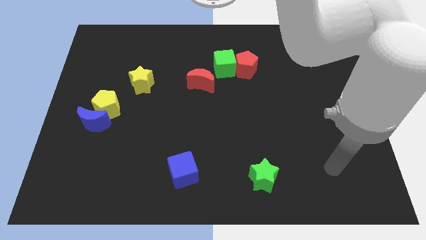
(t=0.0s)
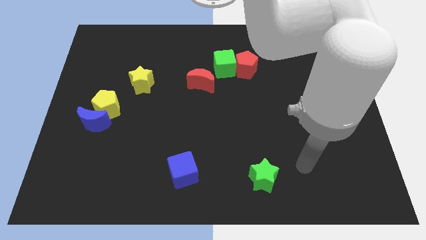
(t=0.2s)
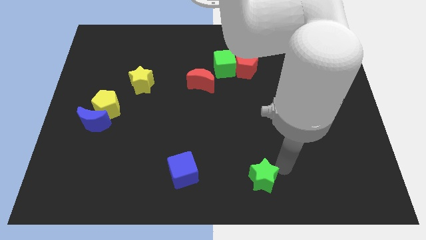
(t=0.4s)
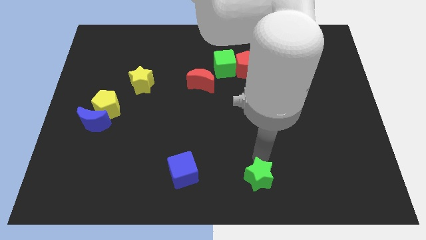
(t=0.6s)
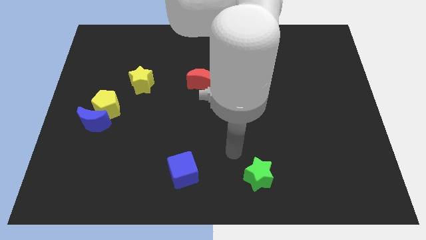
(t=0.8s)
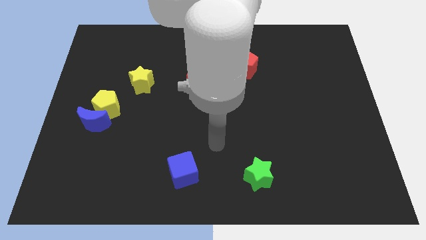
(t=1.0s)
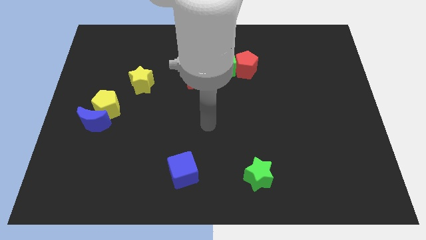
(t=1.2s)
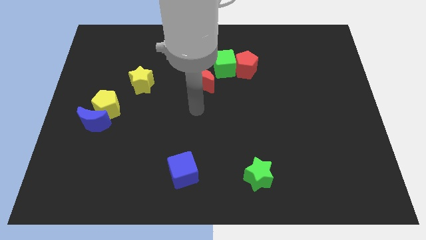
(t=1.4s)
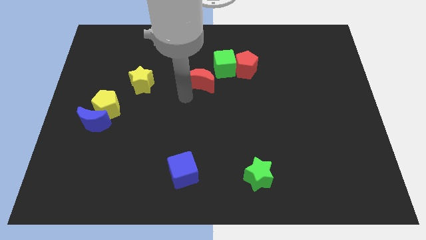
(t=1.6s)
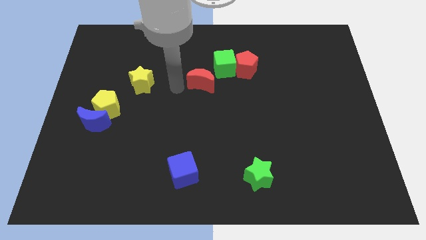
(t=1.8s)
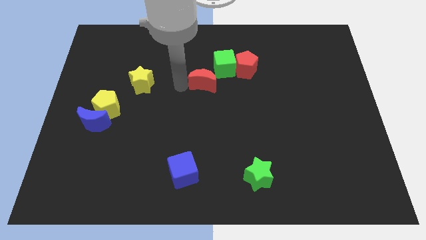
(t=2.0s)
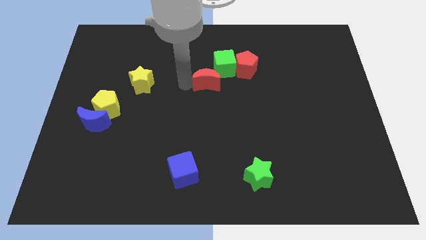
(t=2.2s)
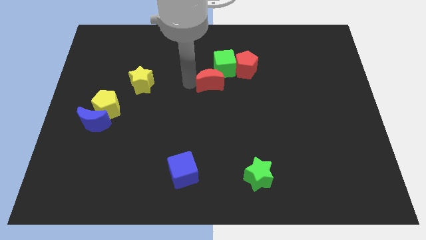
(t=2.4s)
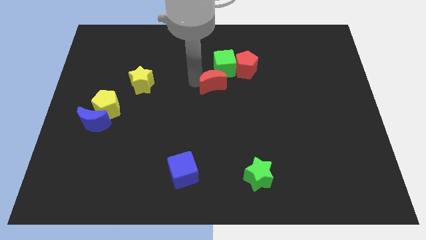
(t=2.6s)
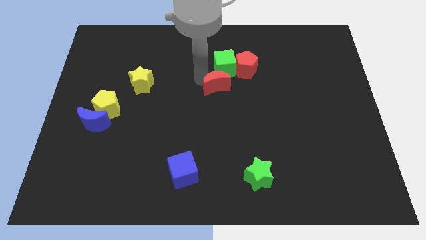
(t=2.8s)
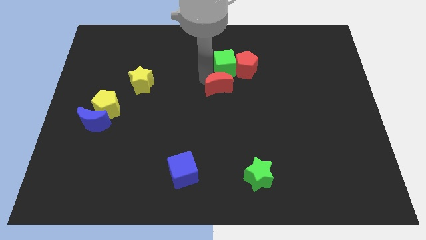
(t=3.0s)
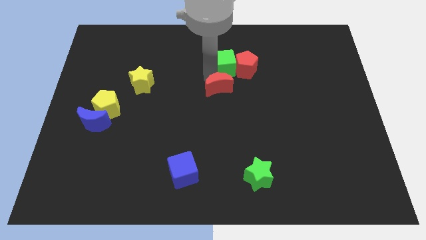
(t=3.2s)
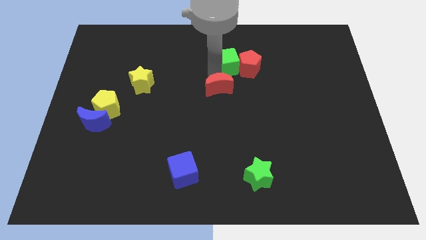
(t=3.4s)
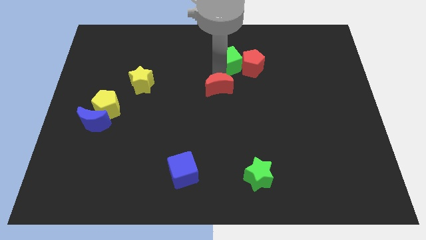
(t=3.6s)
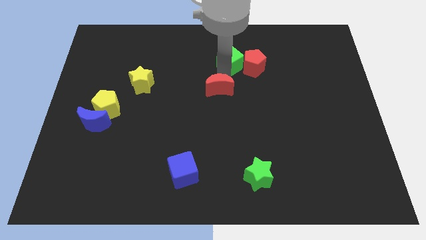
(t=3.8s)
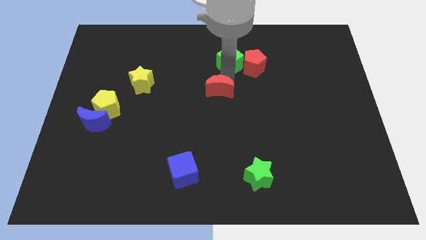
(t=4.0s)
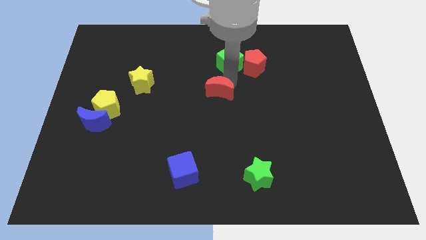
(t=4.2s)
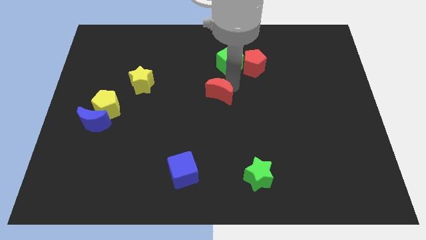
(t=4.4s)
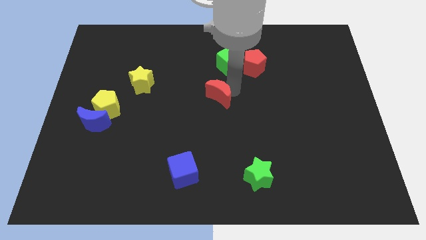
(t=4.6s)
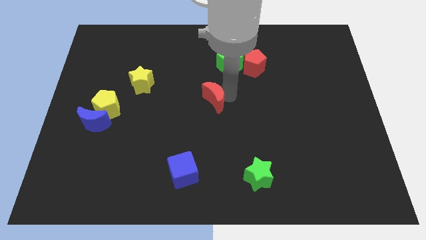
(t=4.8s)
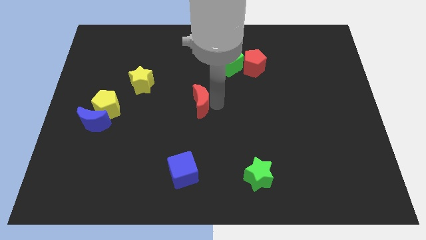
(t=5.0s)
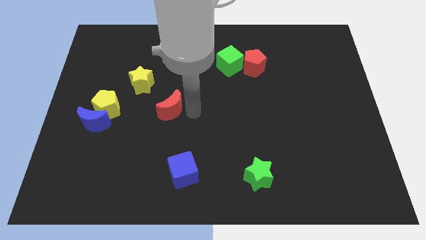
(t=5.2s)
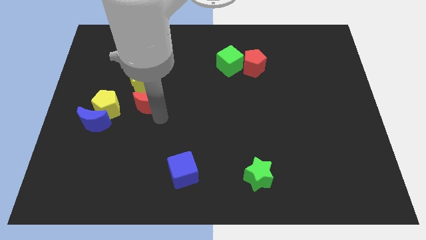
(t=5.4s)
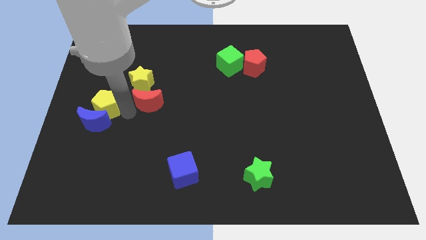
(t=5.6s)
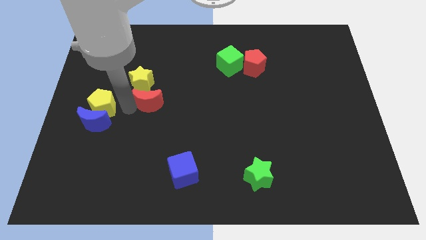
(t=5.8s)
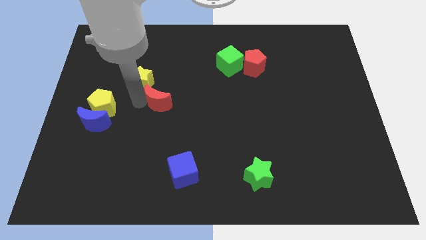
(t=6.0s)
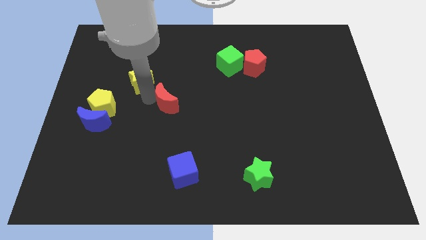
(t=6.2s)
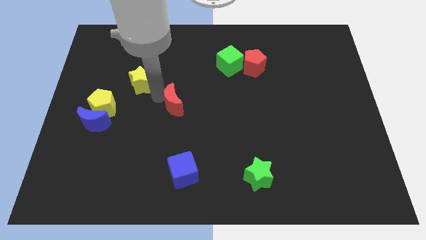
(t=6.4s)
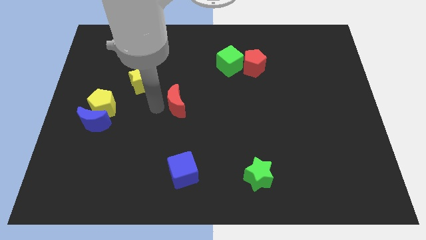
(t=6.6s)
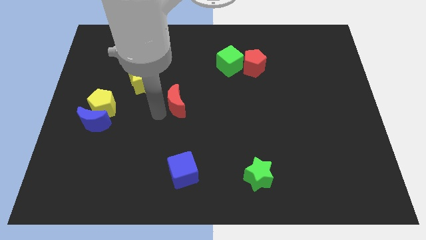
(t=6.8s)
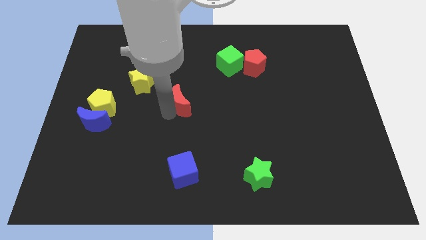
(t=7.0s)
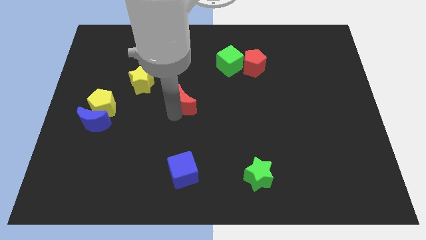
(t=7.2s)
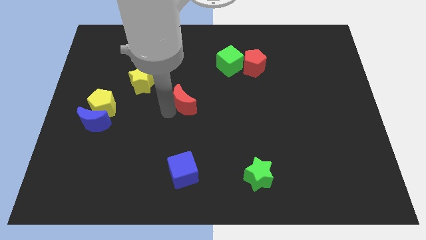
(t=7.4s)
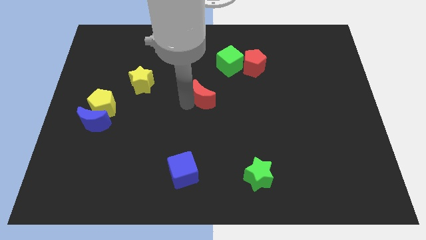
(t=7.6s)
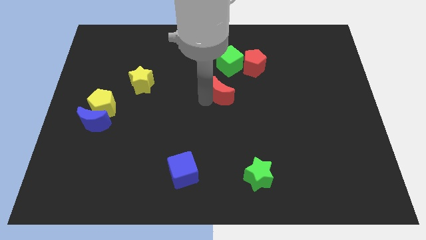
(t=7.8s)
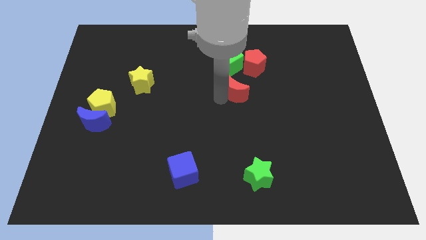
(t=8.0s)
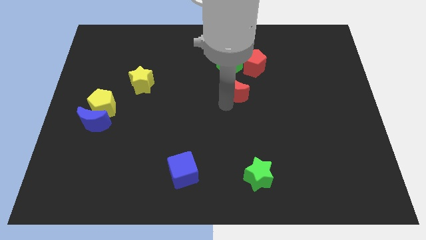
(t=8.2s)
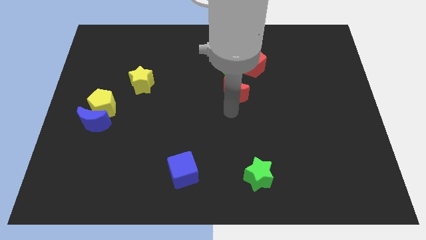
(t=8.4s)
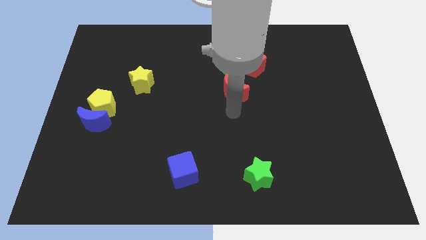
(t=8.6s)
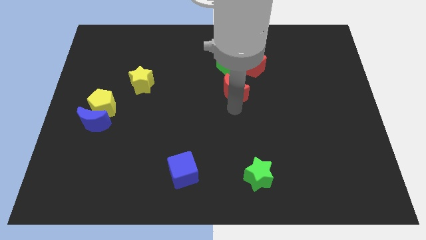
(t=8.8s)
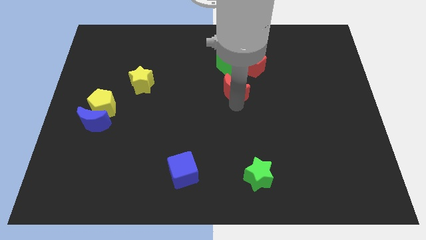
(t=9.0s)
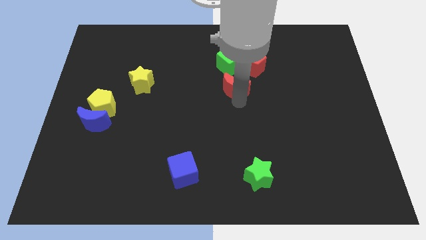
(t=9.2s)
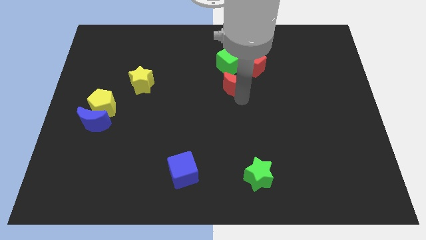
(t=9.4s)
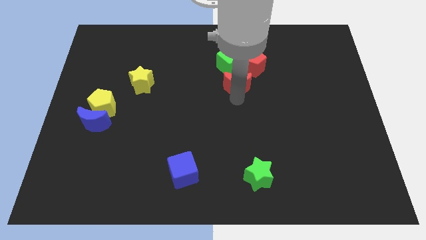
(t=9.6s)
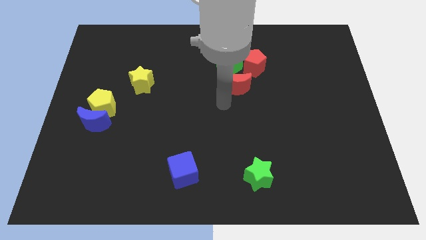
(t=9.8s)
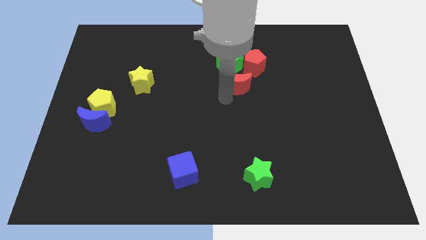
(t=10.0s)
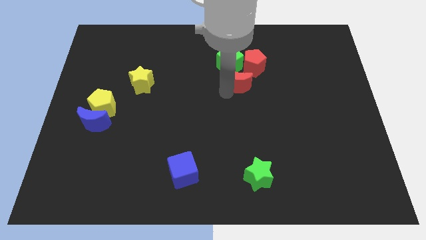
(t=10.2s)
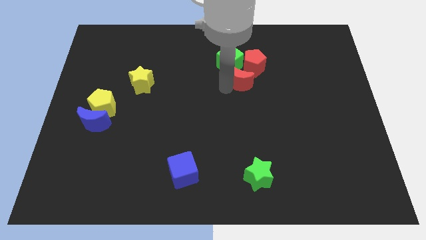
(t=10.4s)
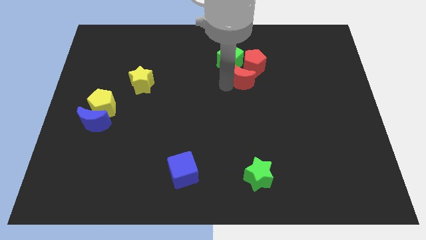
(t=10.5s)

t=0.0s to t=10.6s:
push the red moon next to the red pentagon

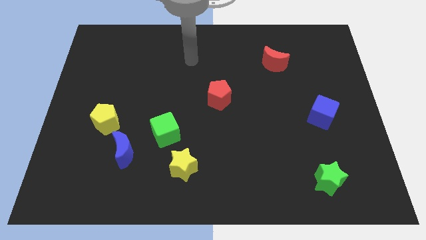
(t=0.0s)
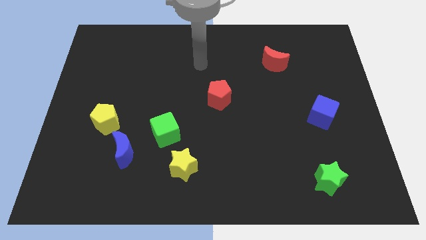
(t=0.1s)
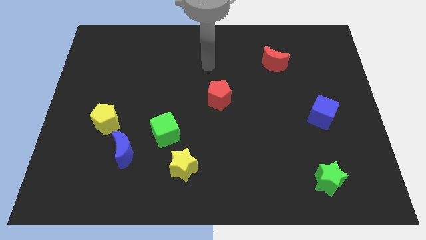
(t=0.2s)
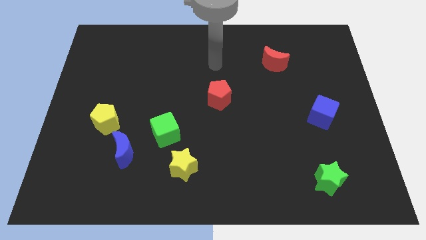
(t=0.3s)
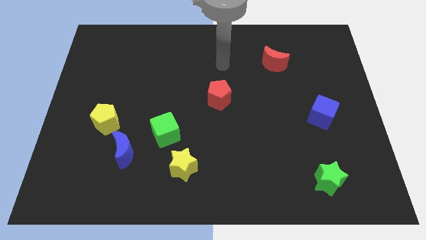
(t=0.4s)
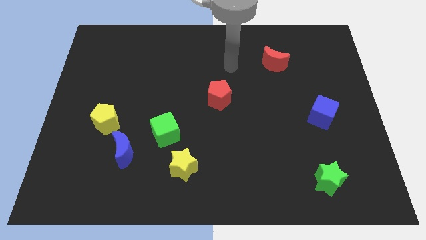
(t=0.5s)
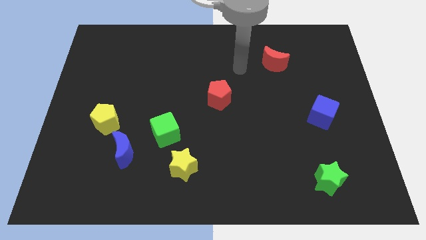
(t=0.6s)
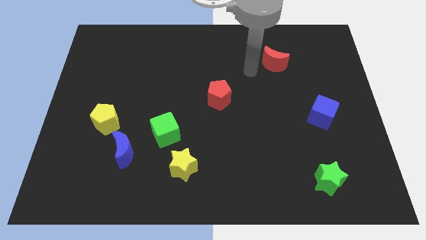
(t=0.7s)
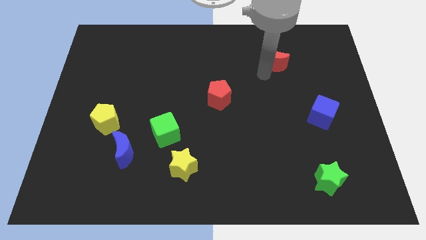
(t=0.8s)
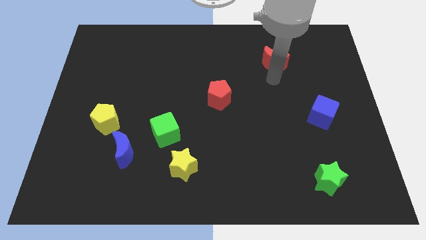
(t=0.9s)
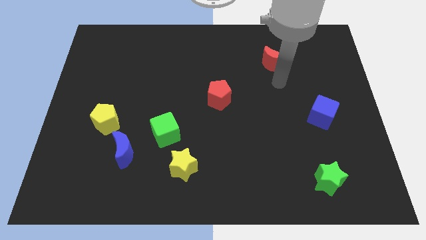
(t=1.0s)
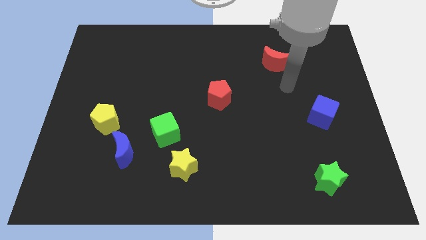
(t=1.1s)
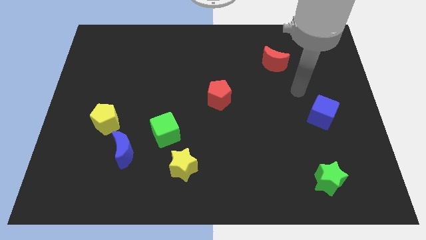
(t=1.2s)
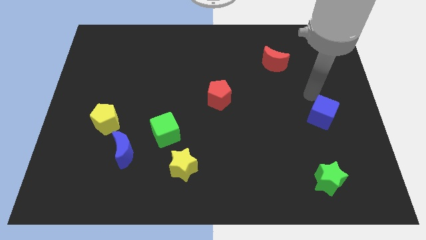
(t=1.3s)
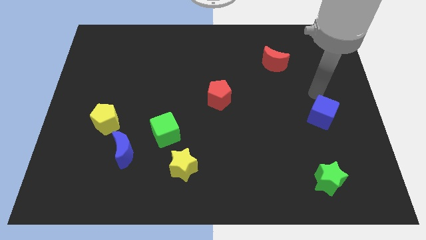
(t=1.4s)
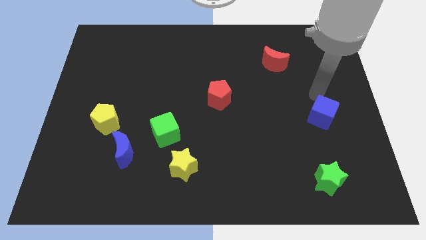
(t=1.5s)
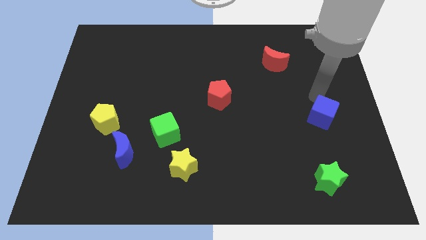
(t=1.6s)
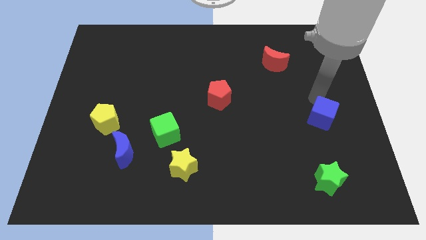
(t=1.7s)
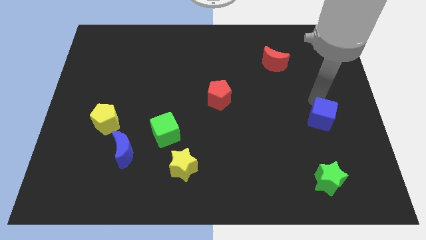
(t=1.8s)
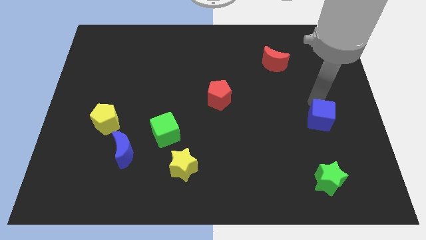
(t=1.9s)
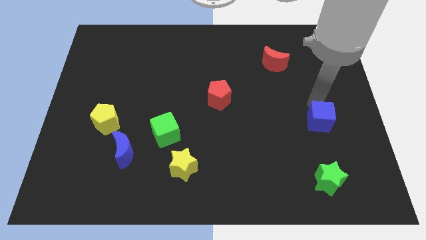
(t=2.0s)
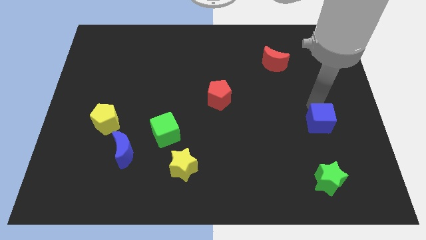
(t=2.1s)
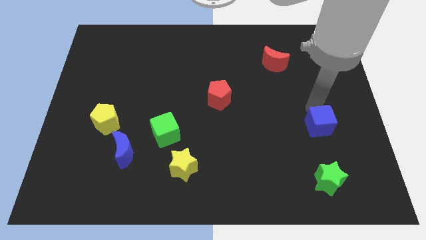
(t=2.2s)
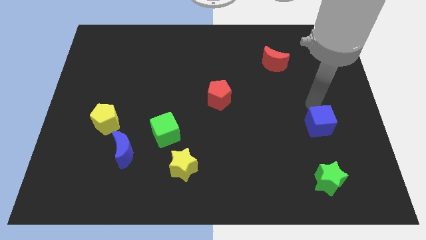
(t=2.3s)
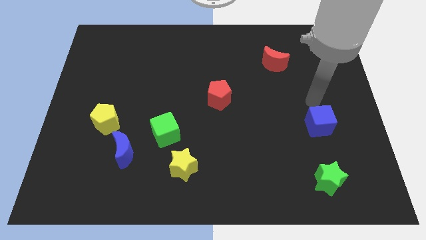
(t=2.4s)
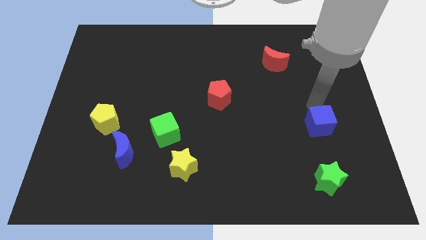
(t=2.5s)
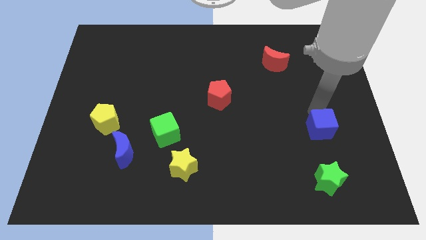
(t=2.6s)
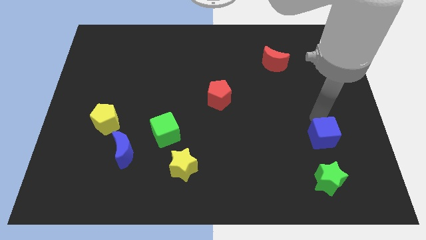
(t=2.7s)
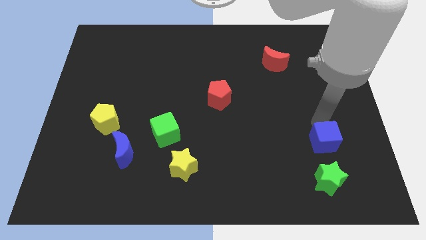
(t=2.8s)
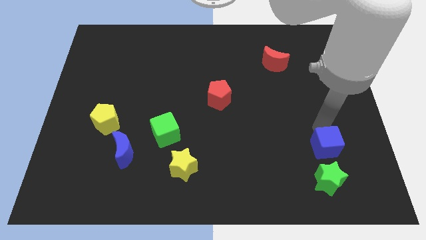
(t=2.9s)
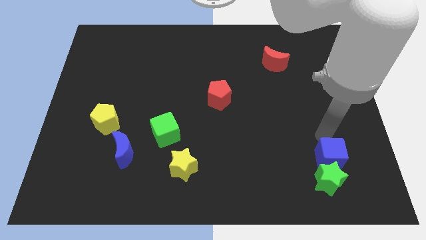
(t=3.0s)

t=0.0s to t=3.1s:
push the blue cube to the green star
